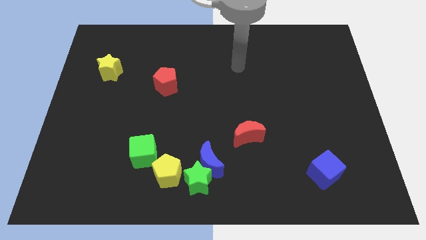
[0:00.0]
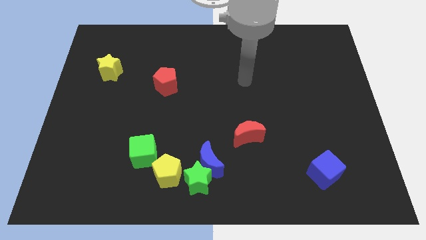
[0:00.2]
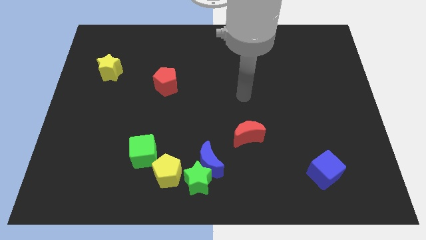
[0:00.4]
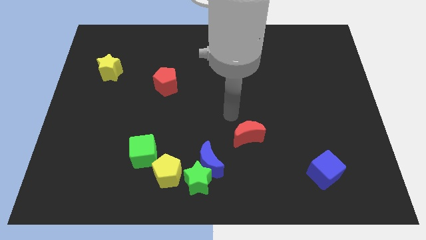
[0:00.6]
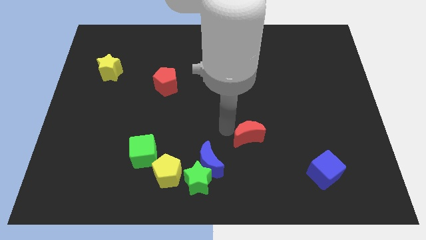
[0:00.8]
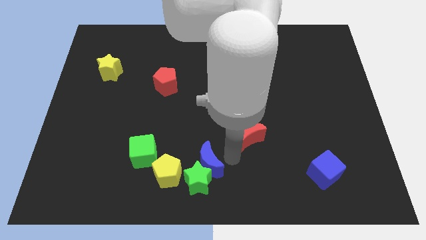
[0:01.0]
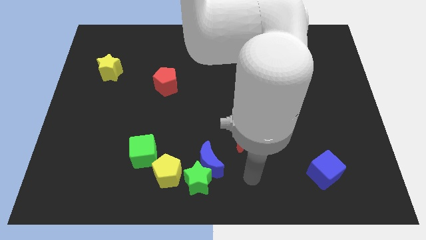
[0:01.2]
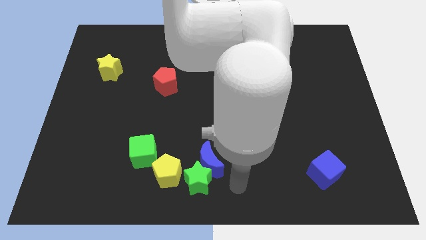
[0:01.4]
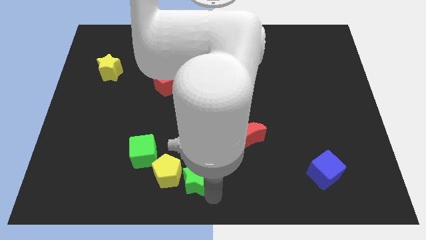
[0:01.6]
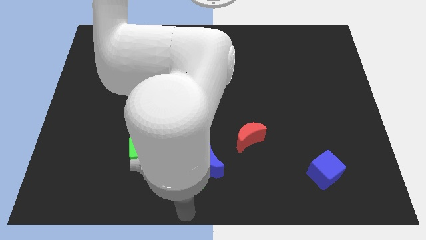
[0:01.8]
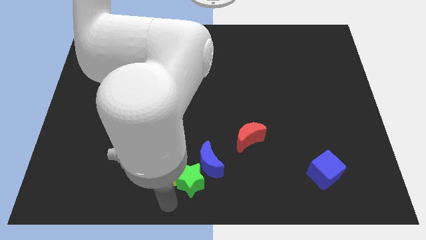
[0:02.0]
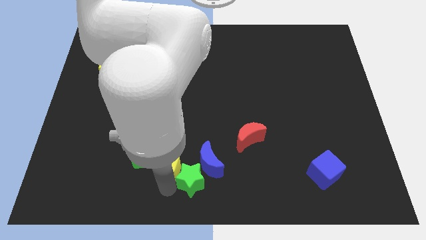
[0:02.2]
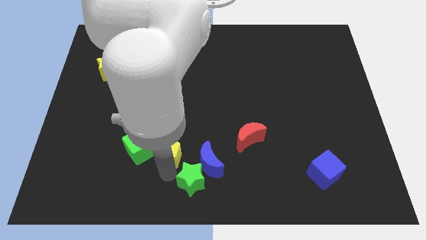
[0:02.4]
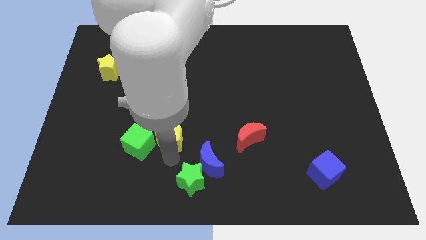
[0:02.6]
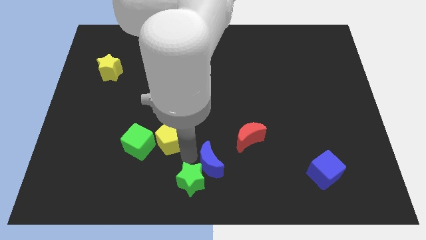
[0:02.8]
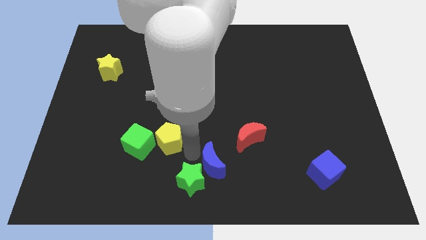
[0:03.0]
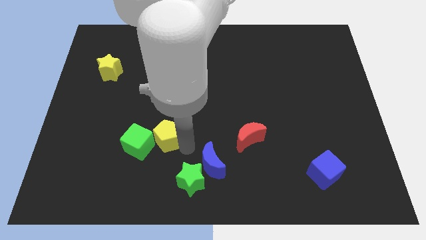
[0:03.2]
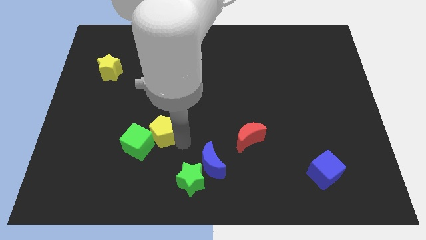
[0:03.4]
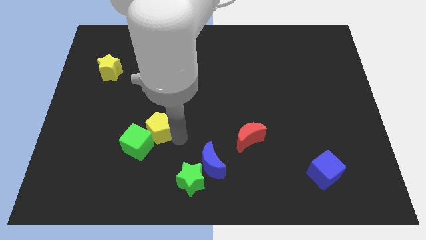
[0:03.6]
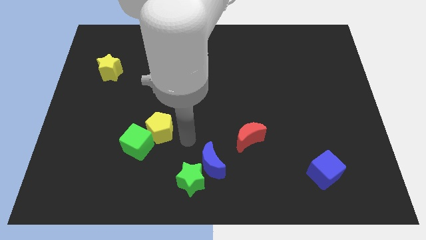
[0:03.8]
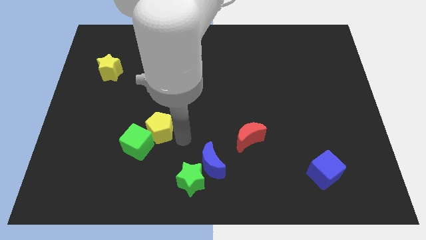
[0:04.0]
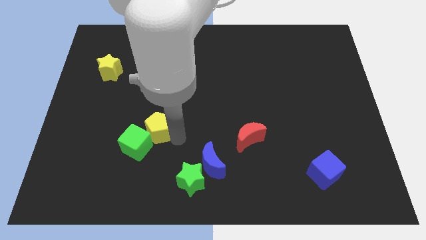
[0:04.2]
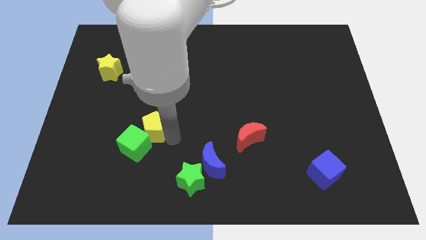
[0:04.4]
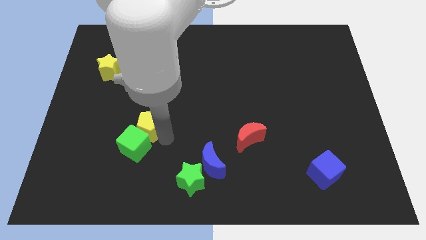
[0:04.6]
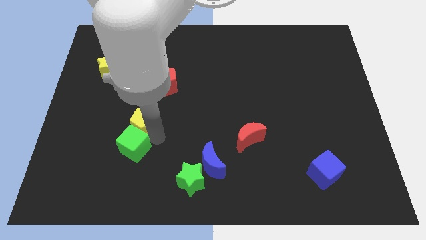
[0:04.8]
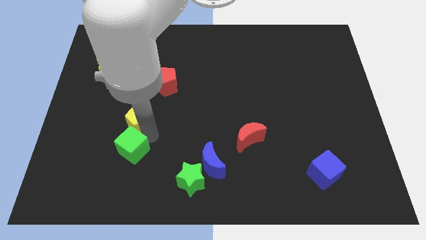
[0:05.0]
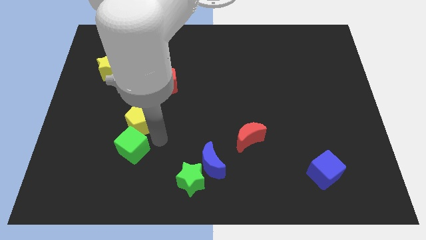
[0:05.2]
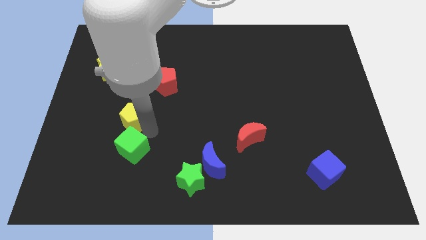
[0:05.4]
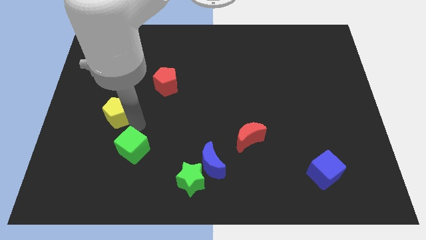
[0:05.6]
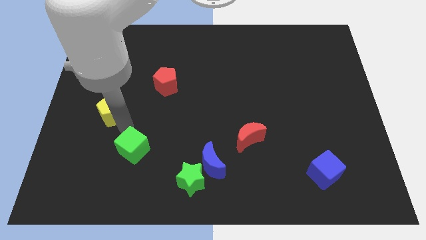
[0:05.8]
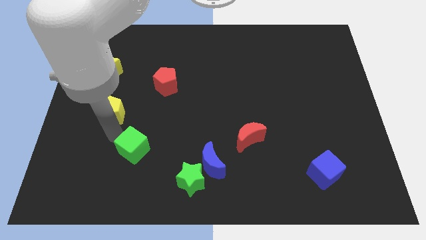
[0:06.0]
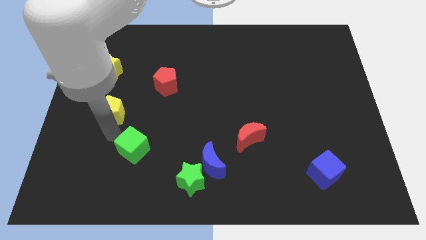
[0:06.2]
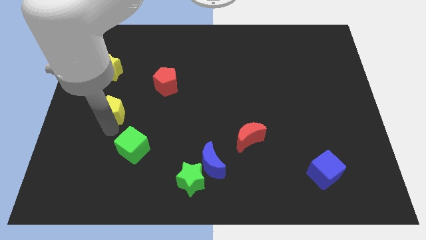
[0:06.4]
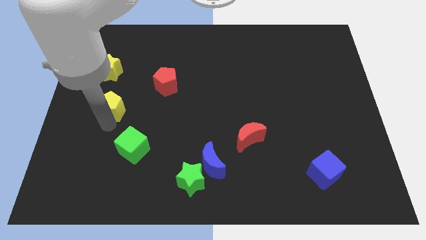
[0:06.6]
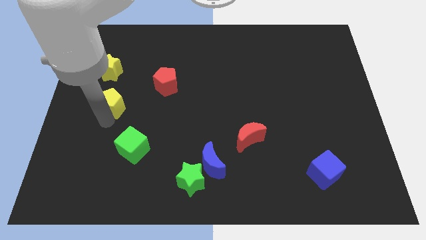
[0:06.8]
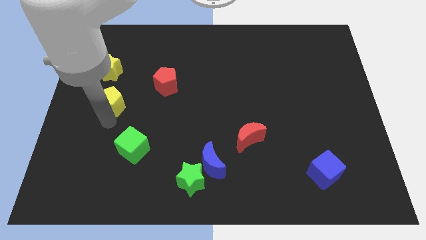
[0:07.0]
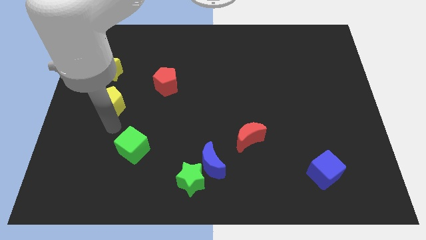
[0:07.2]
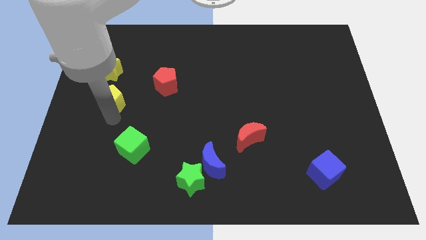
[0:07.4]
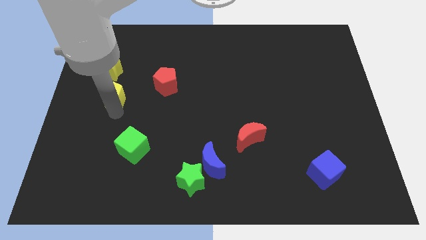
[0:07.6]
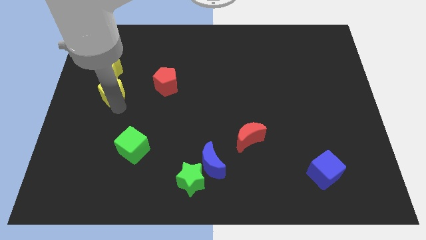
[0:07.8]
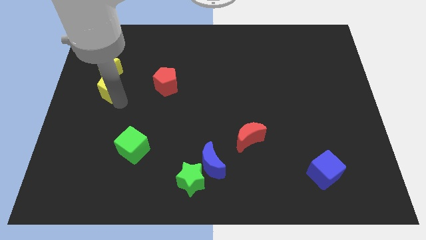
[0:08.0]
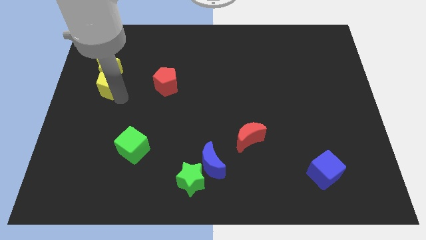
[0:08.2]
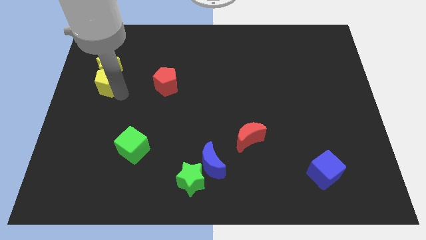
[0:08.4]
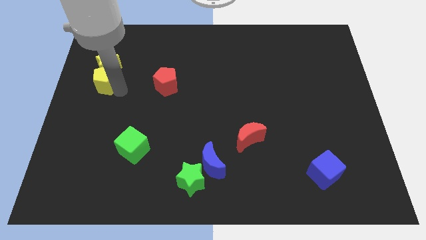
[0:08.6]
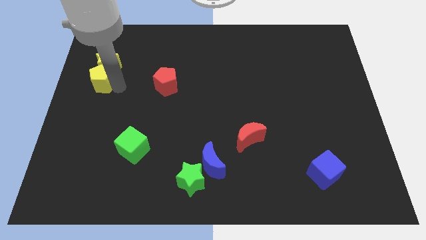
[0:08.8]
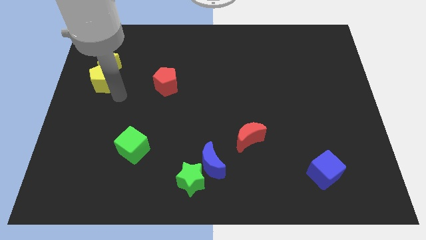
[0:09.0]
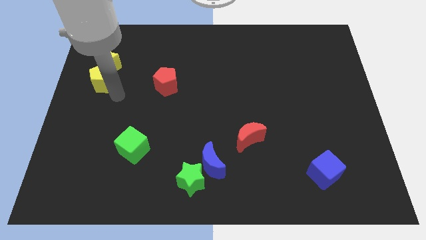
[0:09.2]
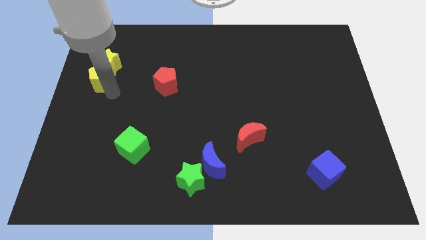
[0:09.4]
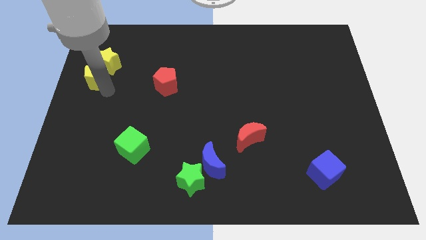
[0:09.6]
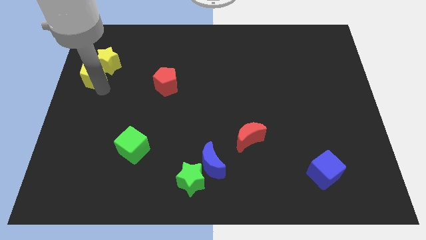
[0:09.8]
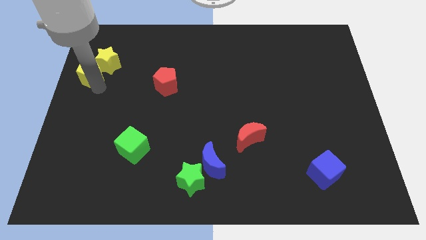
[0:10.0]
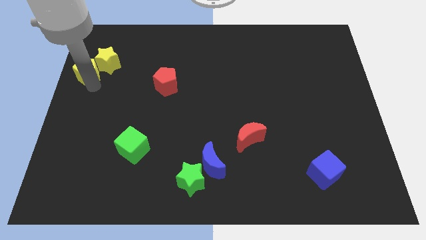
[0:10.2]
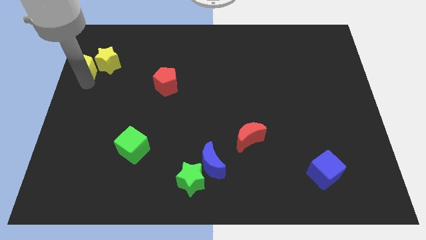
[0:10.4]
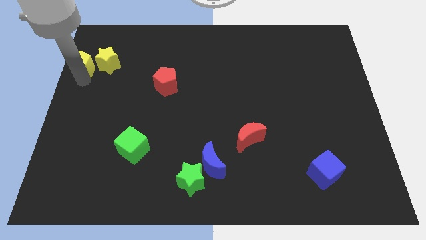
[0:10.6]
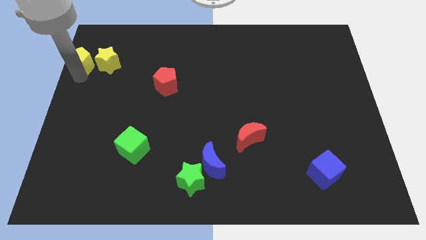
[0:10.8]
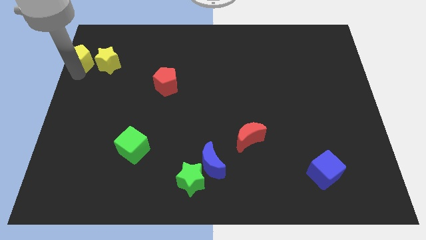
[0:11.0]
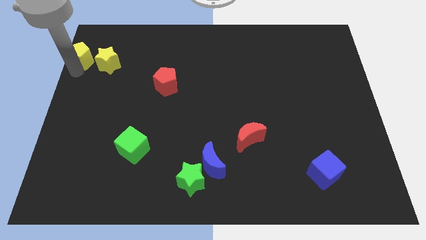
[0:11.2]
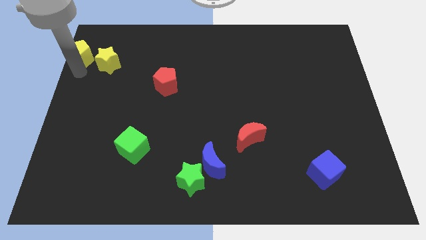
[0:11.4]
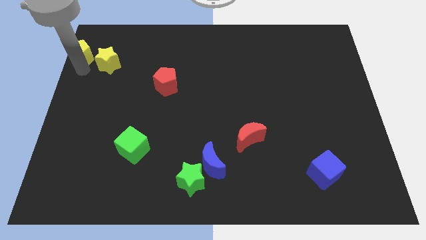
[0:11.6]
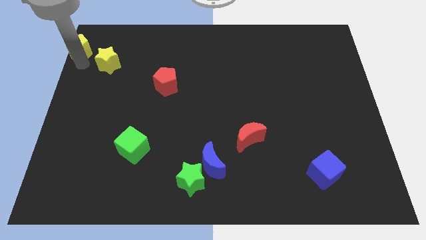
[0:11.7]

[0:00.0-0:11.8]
move the yellow pentagon to the top left corner
